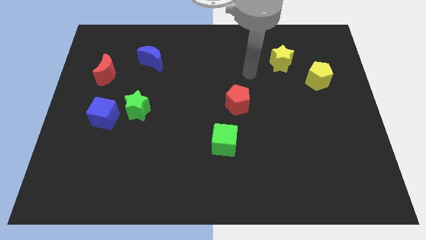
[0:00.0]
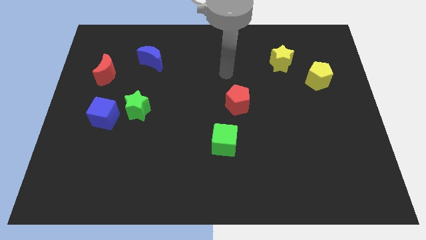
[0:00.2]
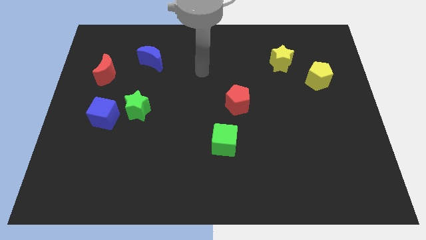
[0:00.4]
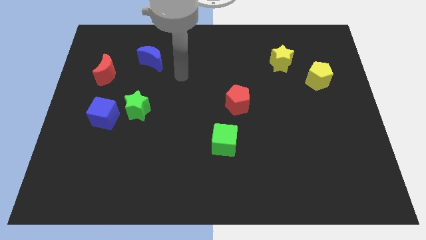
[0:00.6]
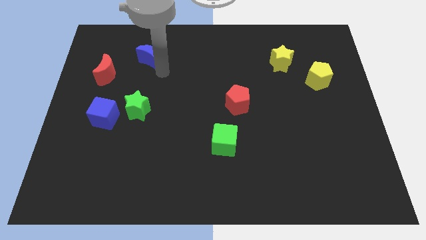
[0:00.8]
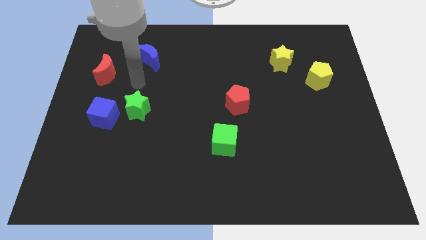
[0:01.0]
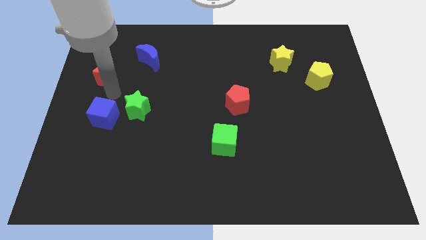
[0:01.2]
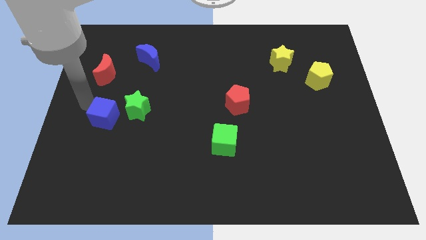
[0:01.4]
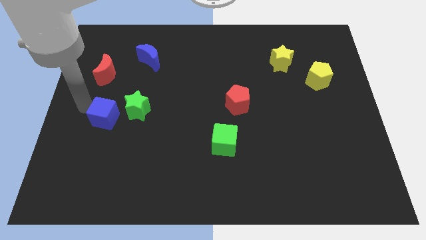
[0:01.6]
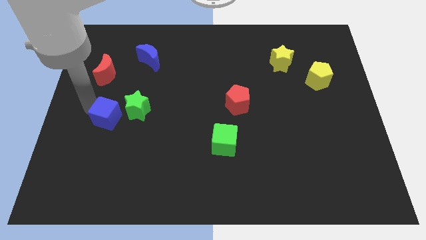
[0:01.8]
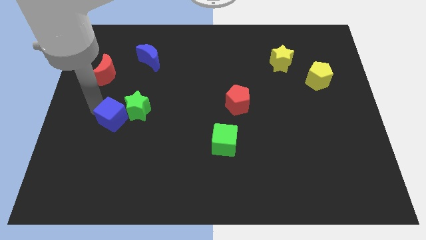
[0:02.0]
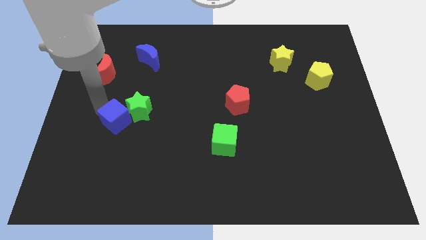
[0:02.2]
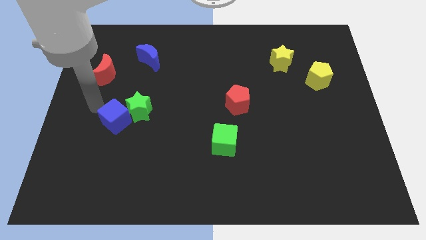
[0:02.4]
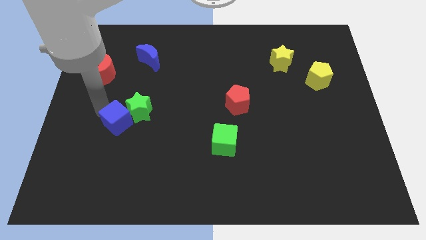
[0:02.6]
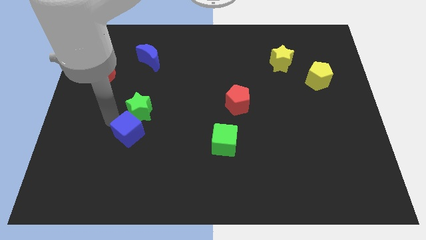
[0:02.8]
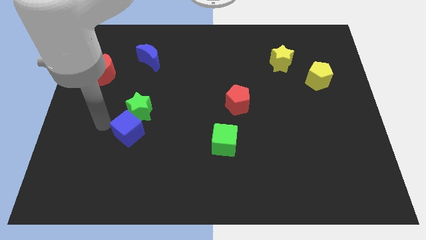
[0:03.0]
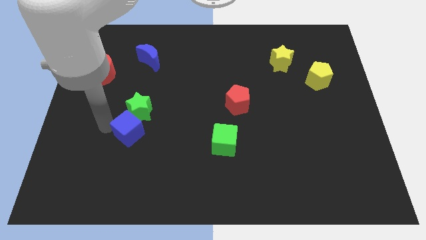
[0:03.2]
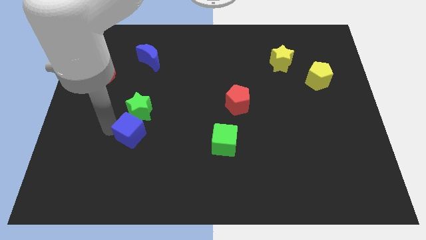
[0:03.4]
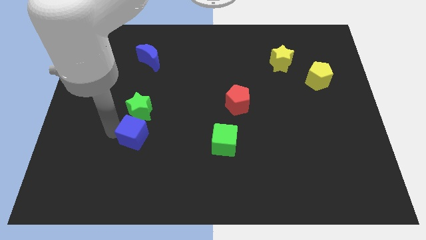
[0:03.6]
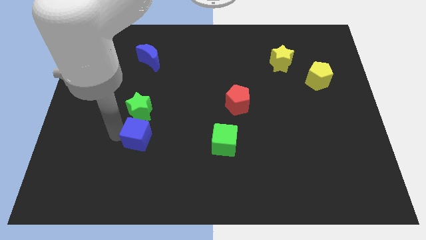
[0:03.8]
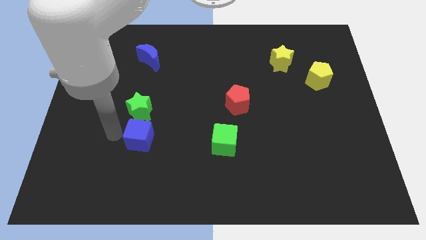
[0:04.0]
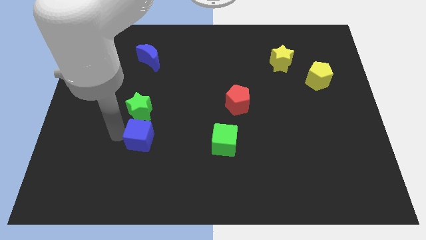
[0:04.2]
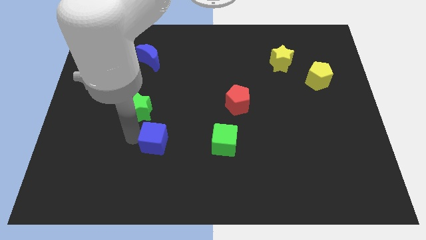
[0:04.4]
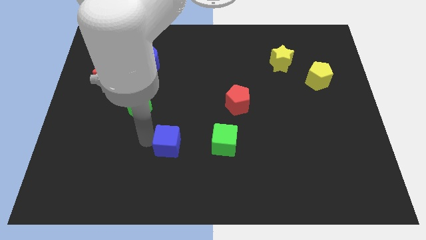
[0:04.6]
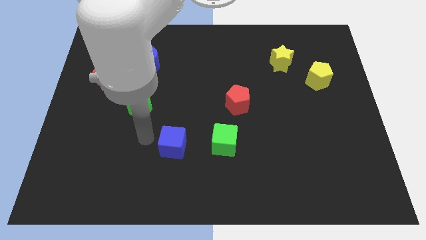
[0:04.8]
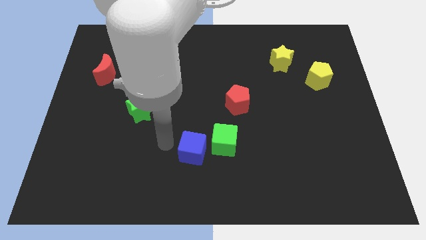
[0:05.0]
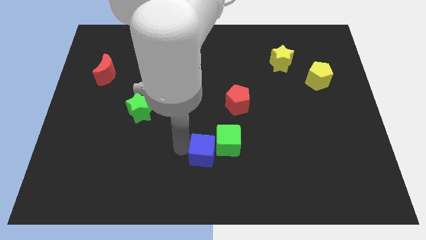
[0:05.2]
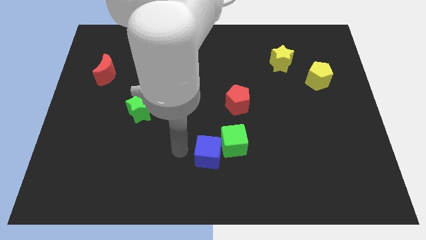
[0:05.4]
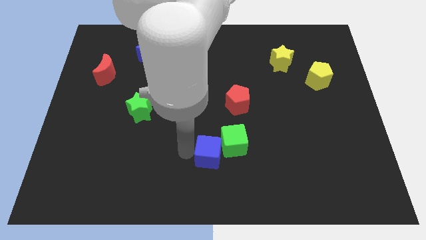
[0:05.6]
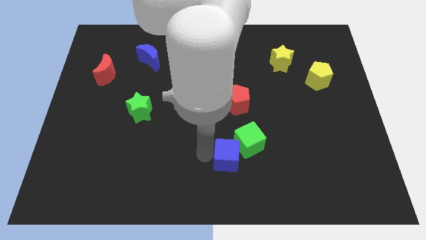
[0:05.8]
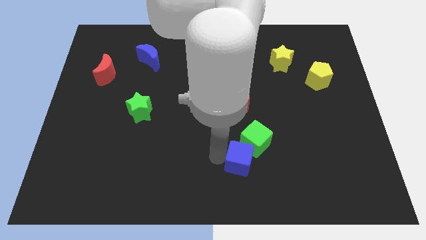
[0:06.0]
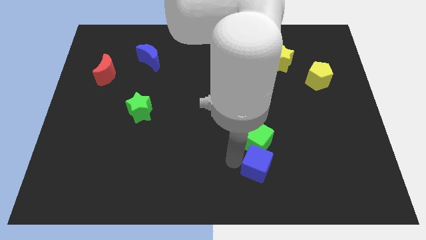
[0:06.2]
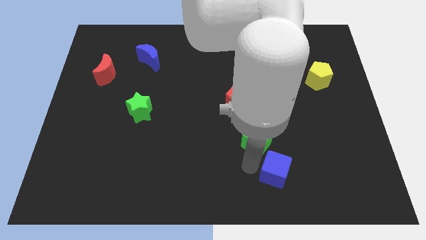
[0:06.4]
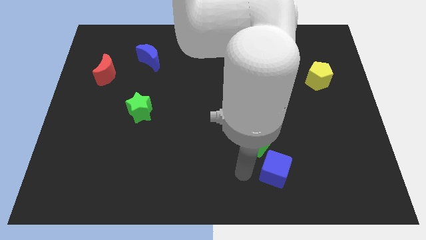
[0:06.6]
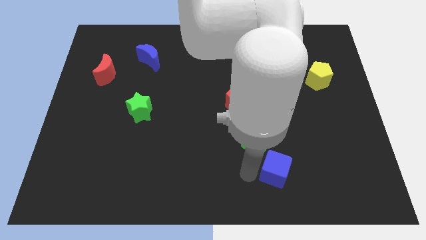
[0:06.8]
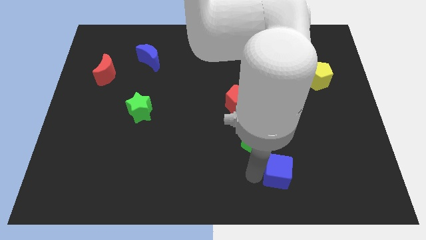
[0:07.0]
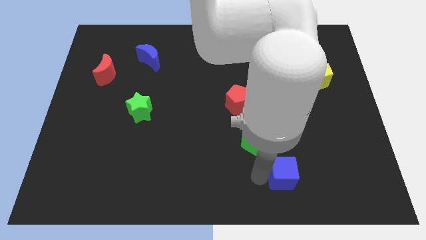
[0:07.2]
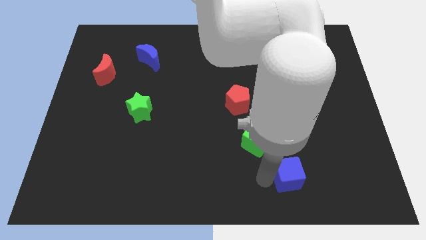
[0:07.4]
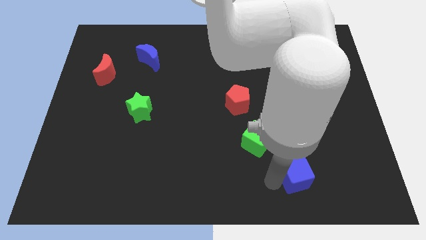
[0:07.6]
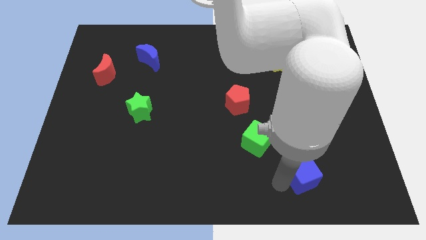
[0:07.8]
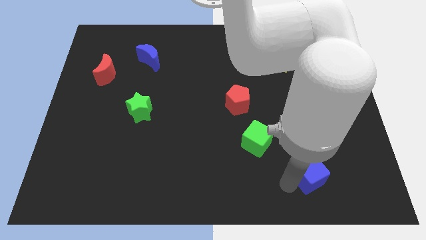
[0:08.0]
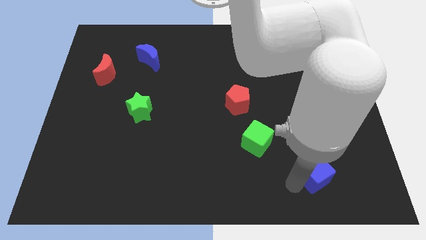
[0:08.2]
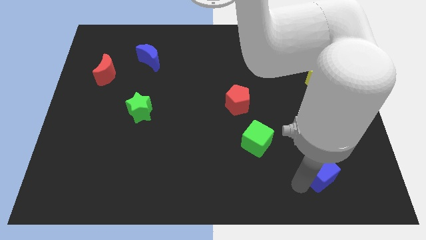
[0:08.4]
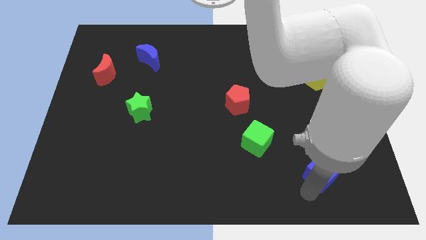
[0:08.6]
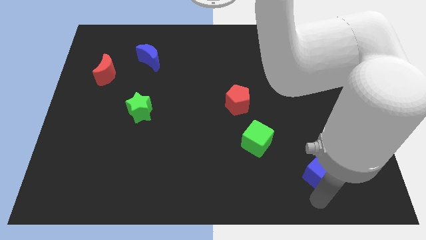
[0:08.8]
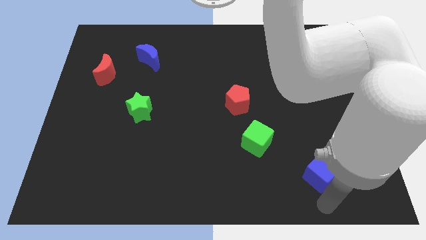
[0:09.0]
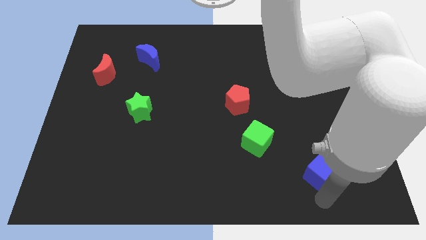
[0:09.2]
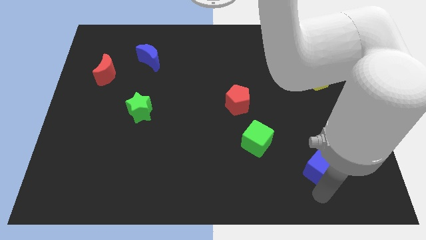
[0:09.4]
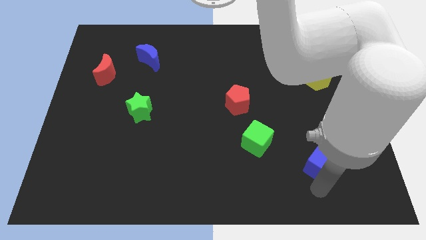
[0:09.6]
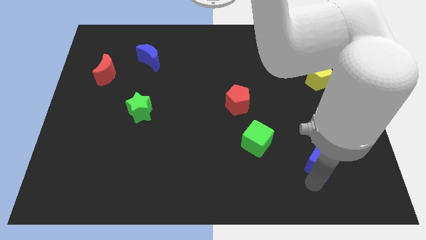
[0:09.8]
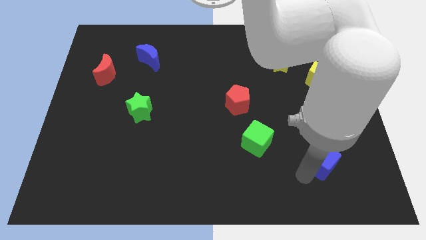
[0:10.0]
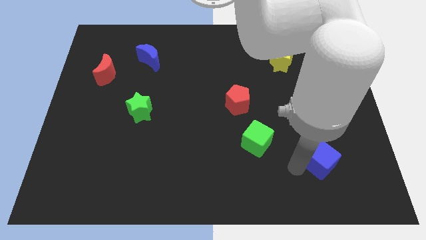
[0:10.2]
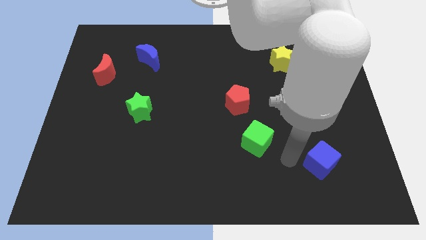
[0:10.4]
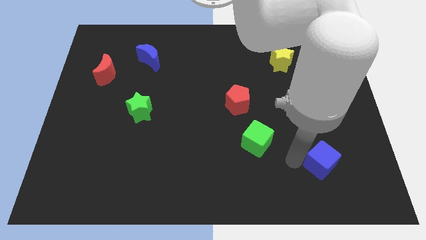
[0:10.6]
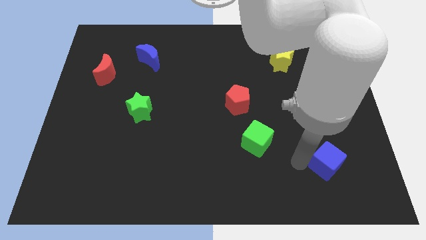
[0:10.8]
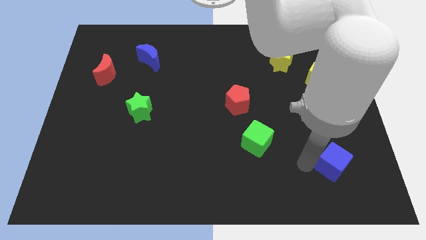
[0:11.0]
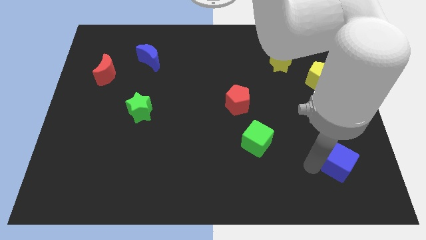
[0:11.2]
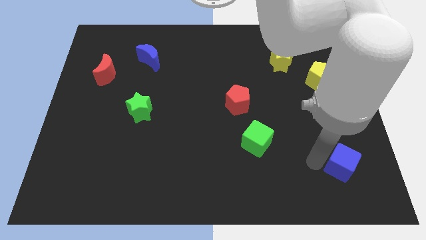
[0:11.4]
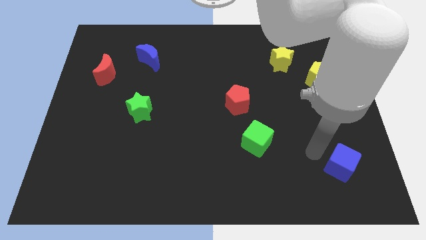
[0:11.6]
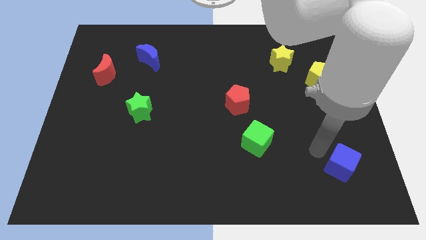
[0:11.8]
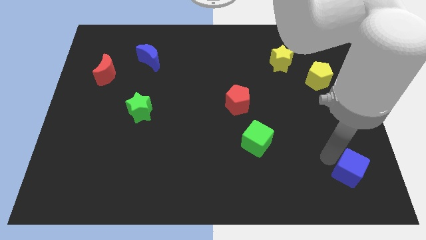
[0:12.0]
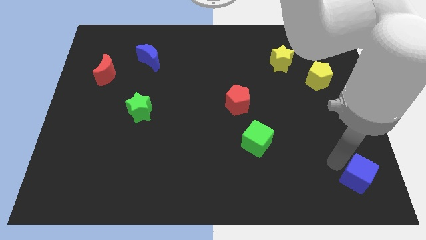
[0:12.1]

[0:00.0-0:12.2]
slide the blue cube to the lower right corner
